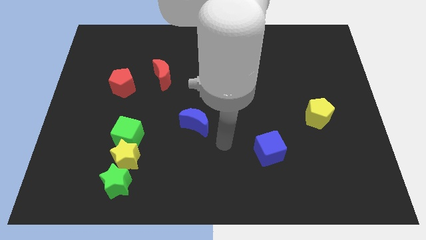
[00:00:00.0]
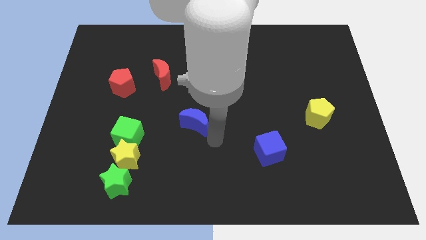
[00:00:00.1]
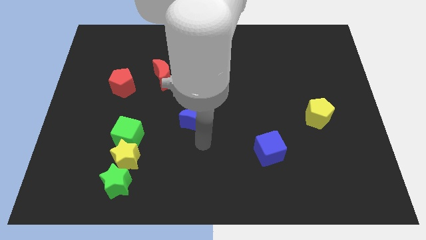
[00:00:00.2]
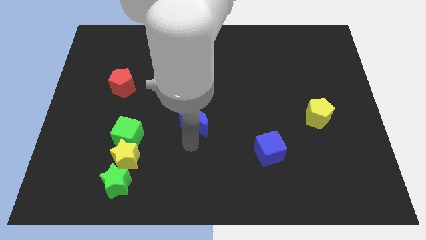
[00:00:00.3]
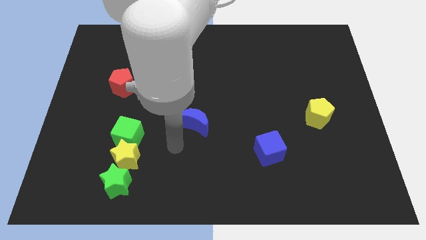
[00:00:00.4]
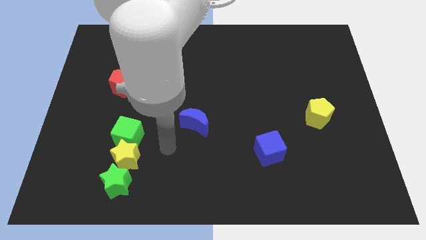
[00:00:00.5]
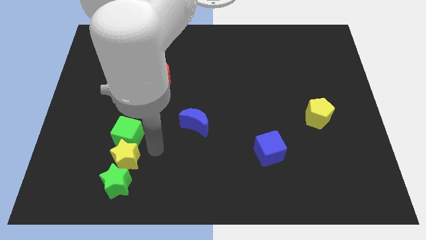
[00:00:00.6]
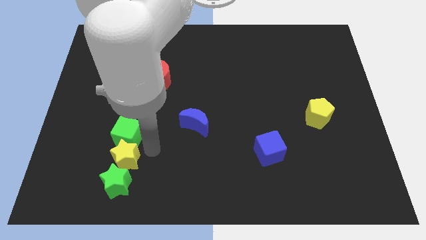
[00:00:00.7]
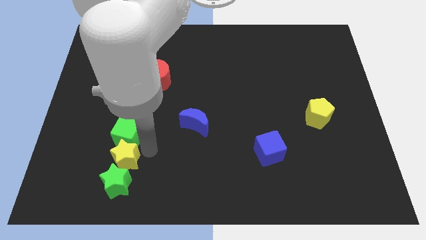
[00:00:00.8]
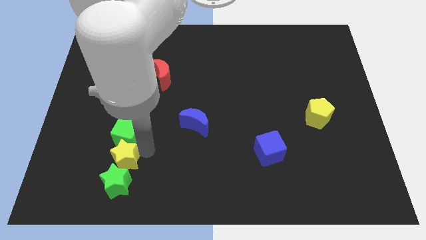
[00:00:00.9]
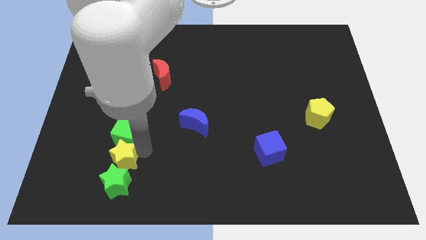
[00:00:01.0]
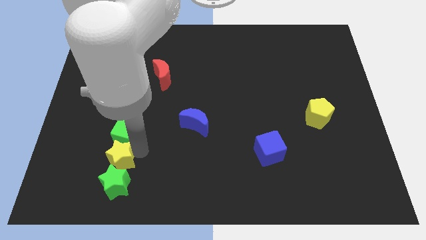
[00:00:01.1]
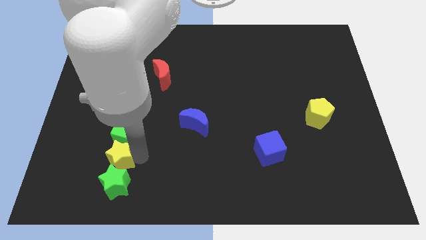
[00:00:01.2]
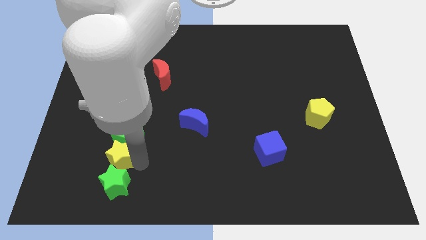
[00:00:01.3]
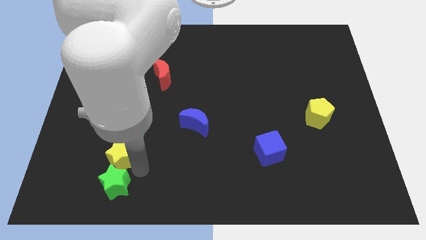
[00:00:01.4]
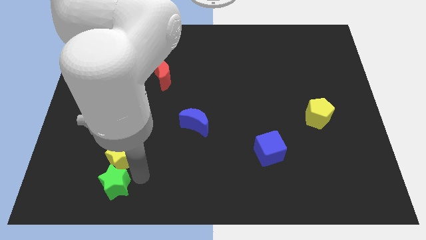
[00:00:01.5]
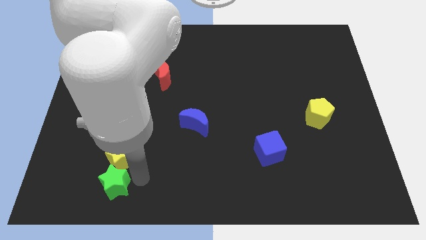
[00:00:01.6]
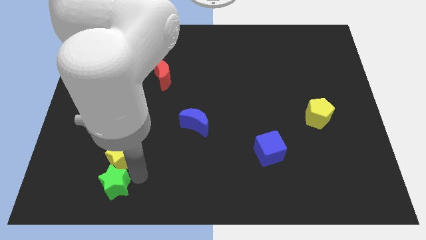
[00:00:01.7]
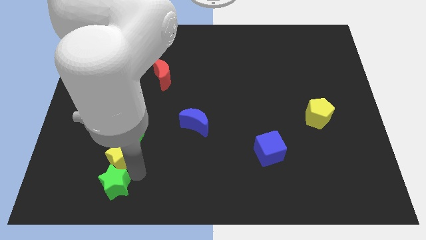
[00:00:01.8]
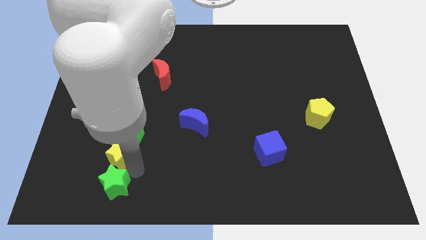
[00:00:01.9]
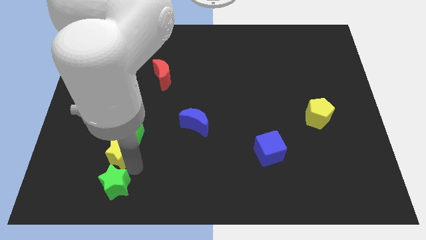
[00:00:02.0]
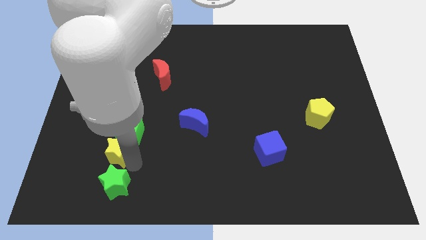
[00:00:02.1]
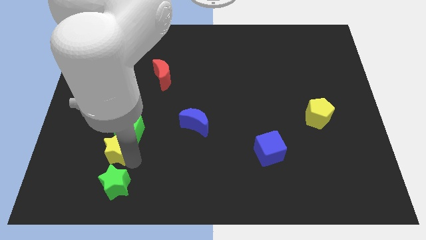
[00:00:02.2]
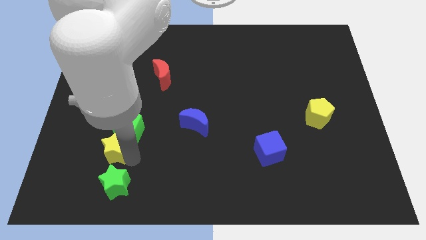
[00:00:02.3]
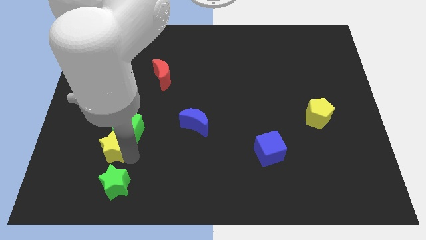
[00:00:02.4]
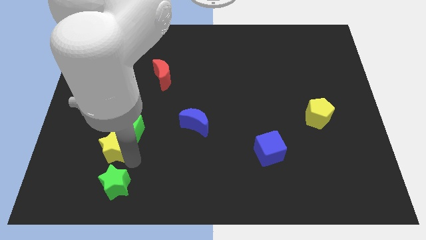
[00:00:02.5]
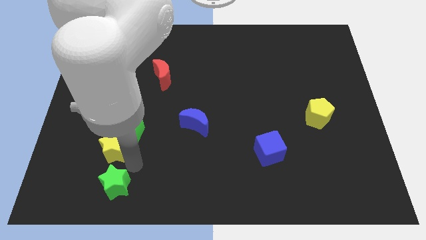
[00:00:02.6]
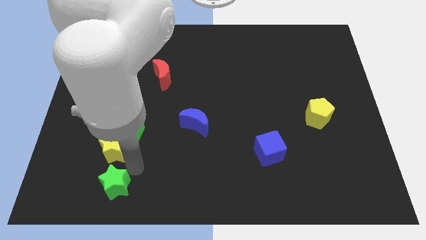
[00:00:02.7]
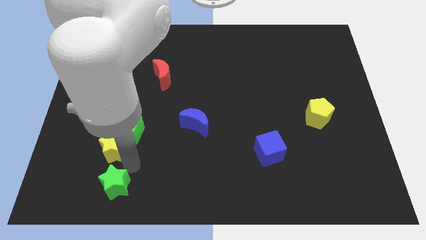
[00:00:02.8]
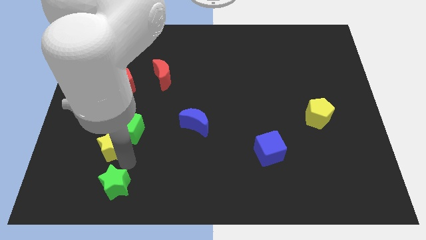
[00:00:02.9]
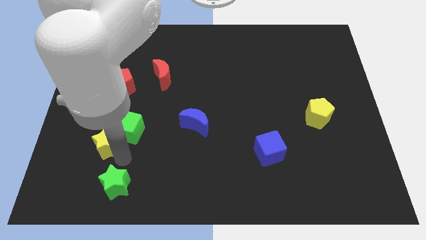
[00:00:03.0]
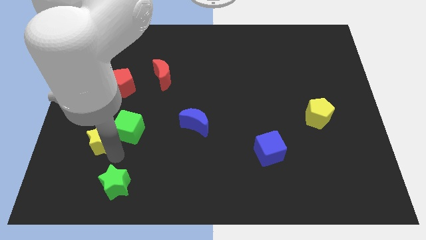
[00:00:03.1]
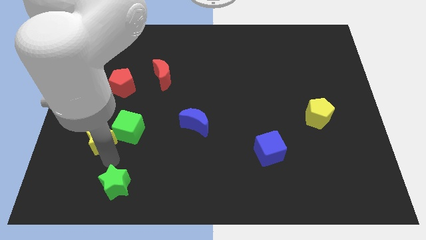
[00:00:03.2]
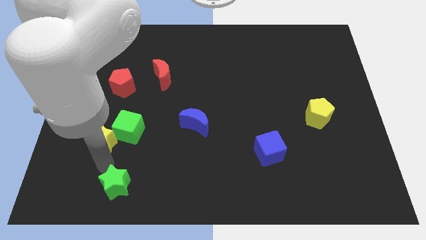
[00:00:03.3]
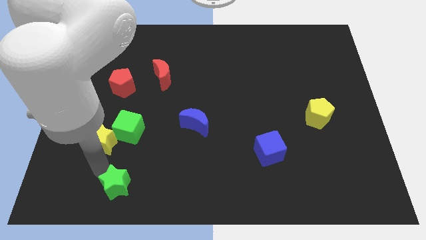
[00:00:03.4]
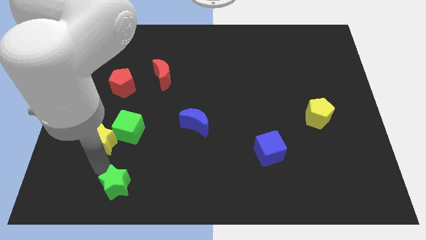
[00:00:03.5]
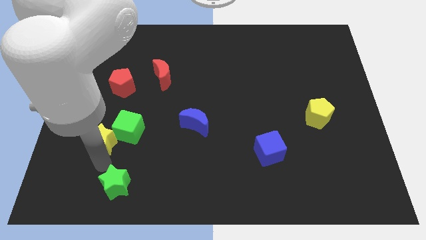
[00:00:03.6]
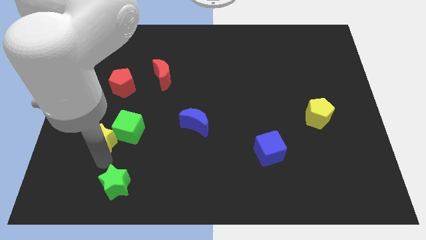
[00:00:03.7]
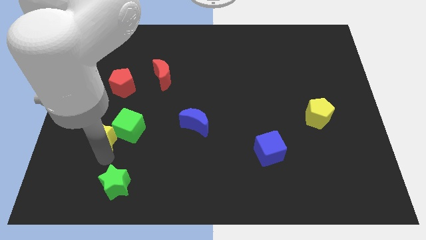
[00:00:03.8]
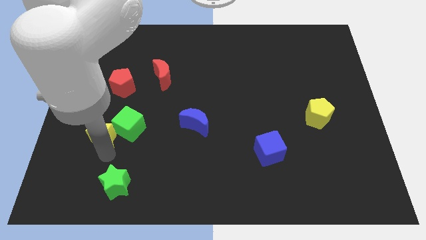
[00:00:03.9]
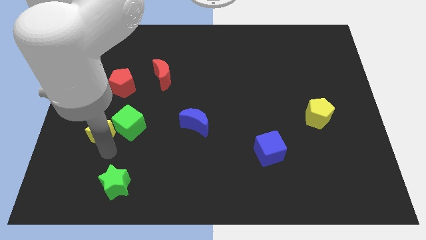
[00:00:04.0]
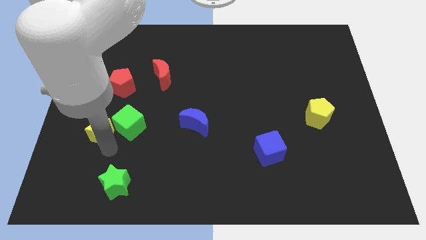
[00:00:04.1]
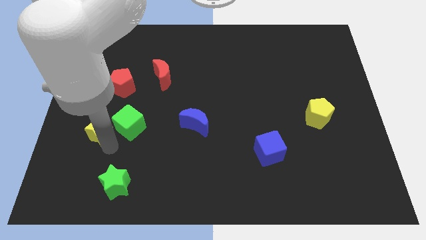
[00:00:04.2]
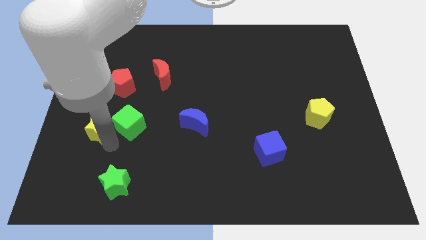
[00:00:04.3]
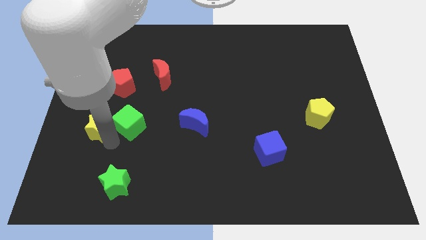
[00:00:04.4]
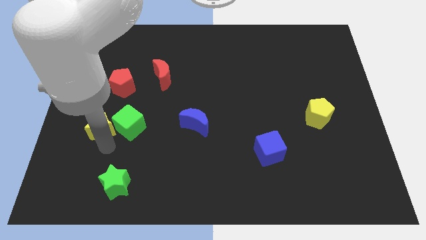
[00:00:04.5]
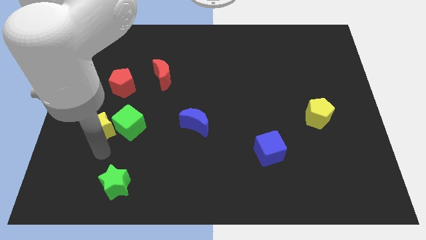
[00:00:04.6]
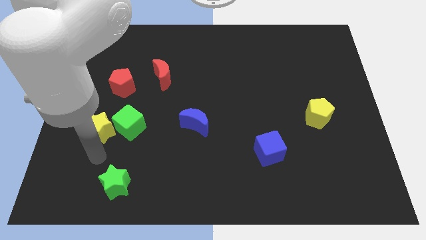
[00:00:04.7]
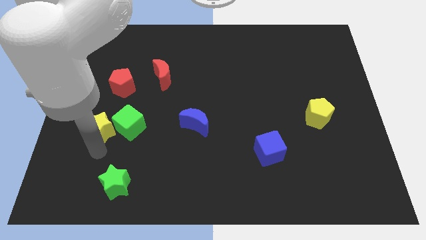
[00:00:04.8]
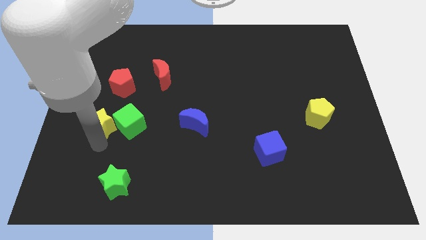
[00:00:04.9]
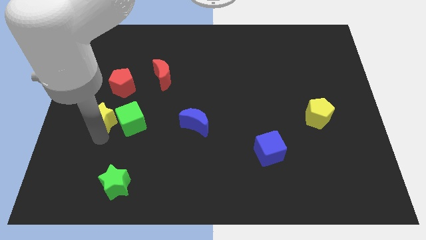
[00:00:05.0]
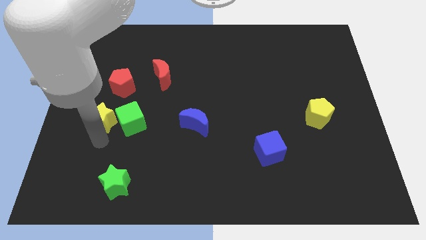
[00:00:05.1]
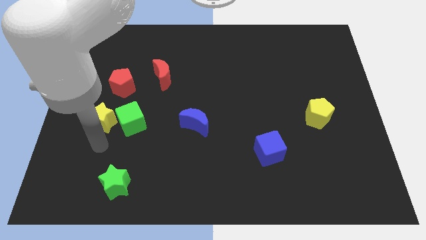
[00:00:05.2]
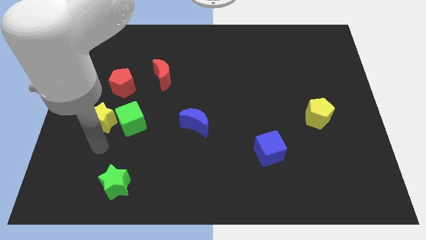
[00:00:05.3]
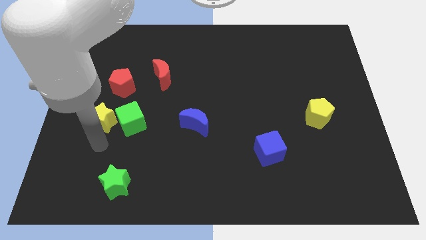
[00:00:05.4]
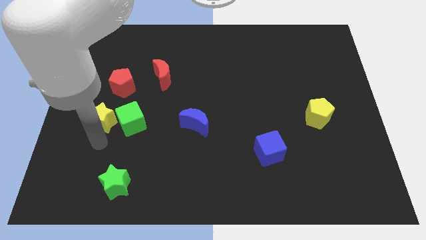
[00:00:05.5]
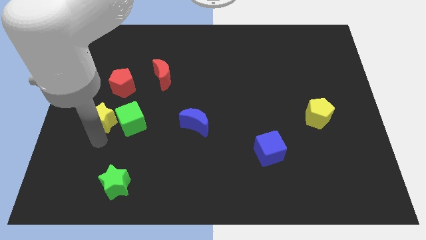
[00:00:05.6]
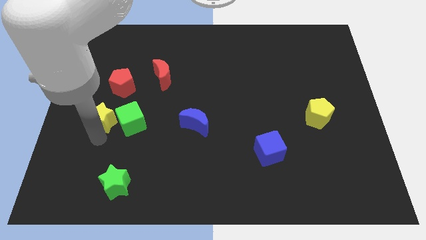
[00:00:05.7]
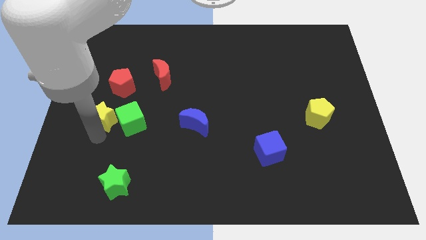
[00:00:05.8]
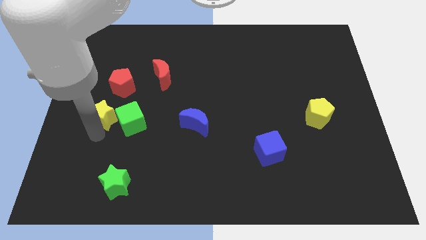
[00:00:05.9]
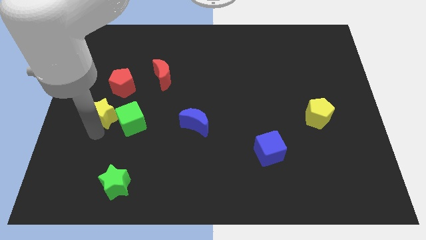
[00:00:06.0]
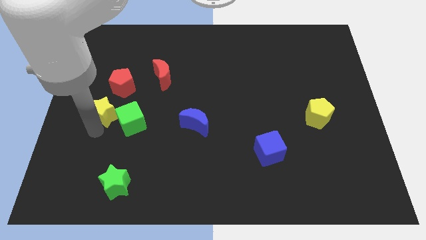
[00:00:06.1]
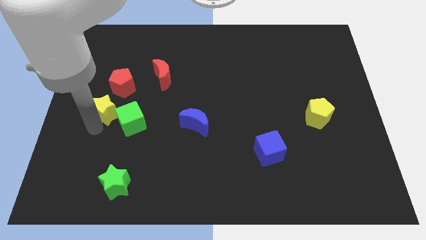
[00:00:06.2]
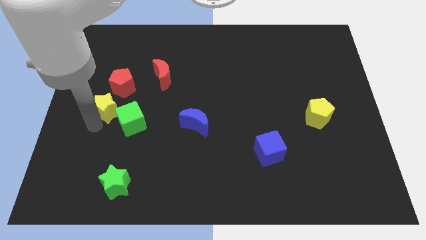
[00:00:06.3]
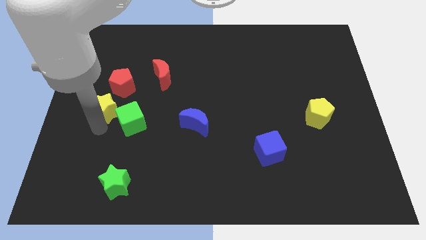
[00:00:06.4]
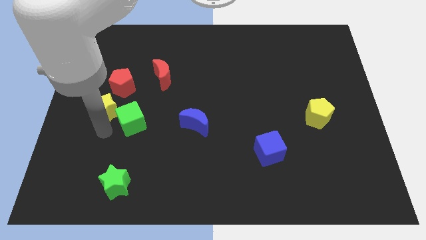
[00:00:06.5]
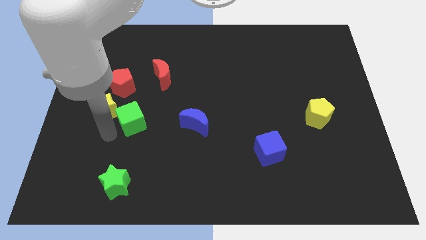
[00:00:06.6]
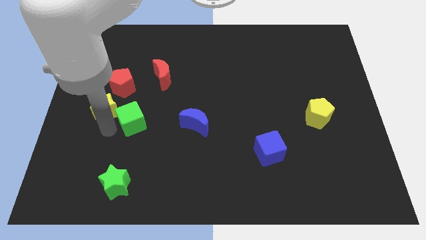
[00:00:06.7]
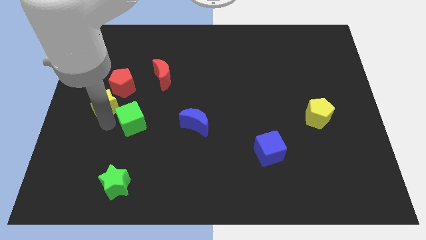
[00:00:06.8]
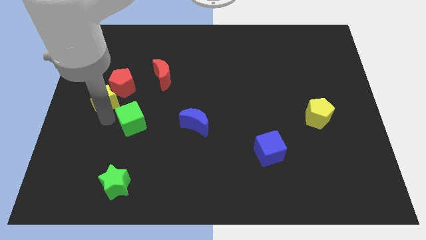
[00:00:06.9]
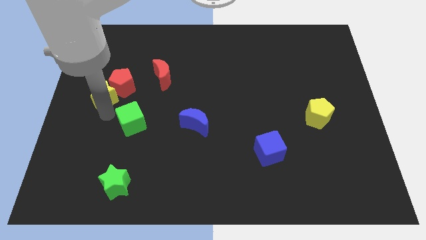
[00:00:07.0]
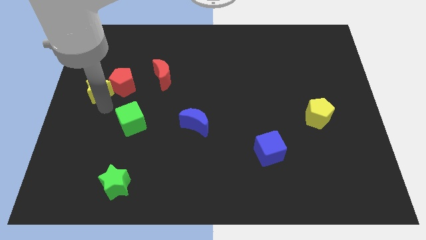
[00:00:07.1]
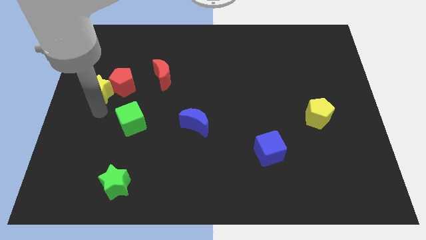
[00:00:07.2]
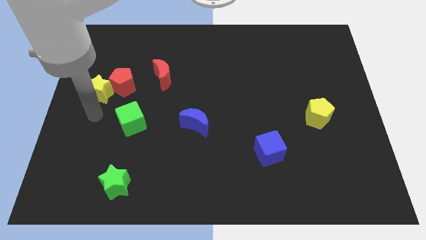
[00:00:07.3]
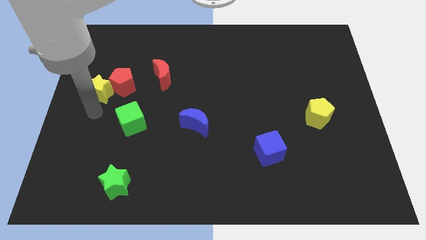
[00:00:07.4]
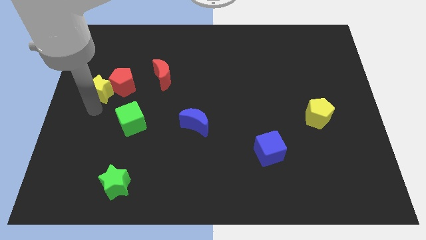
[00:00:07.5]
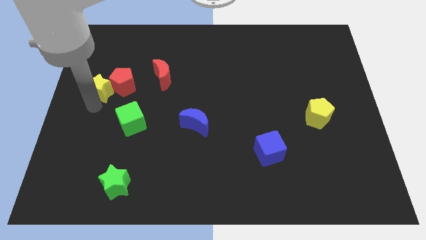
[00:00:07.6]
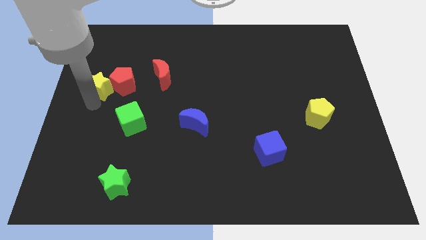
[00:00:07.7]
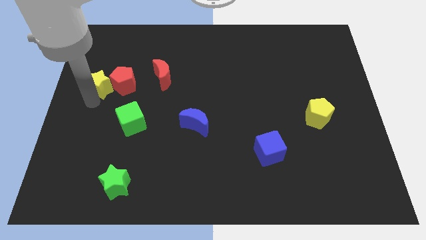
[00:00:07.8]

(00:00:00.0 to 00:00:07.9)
move the yellow star to the top left of the red pentagon

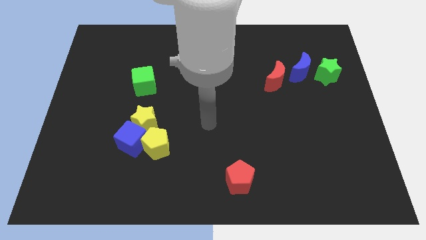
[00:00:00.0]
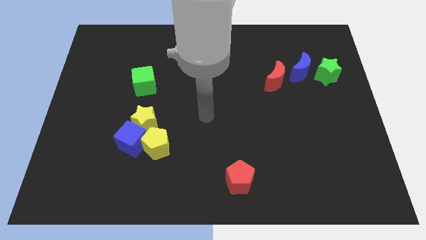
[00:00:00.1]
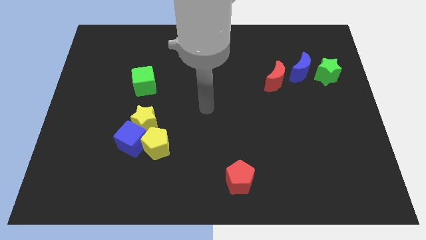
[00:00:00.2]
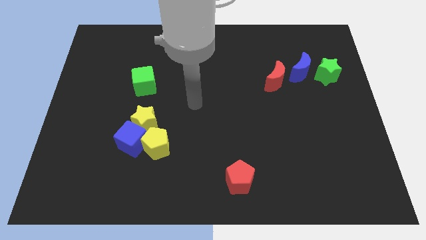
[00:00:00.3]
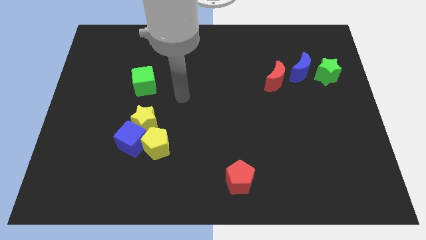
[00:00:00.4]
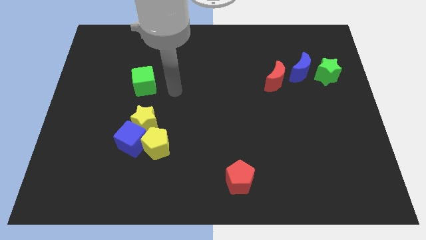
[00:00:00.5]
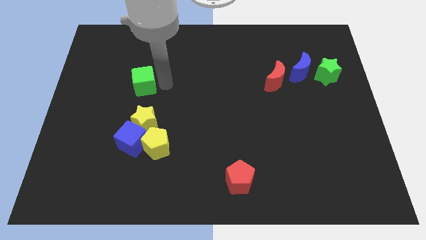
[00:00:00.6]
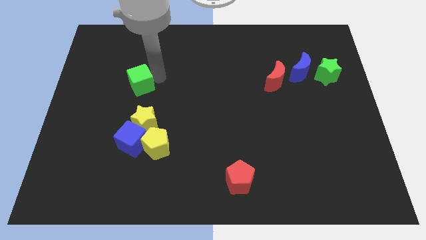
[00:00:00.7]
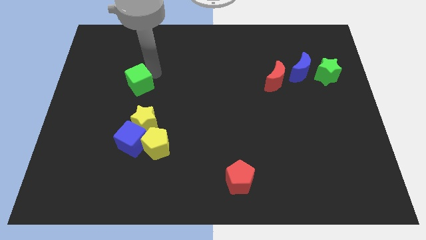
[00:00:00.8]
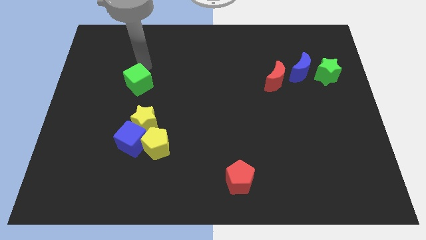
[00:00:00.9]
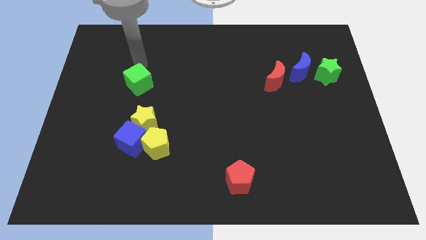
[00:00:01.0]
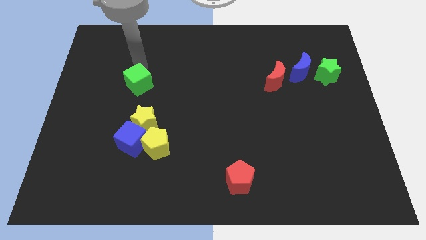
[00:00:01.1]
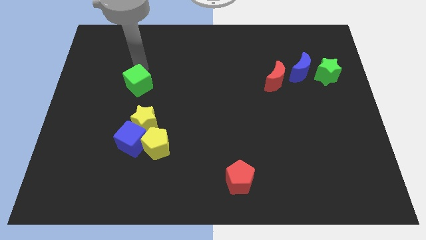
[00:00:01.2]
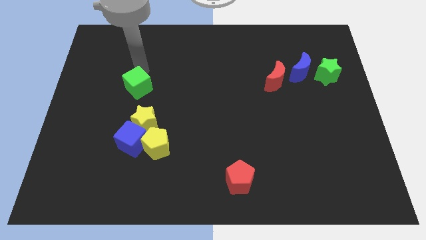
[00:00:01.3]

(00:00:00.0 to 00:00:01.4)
push the green cube to the top of the blue cube
